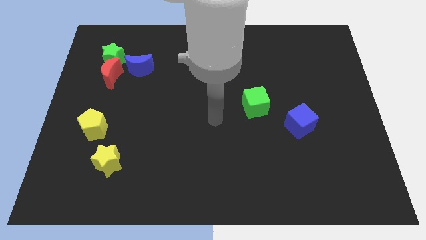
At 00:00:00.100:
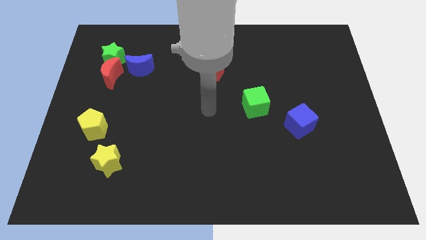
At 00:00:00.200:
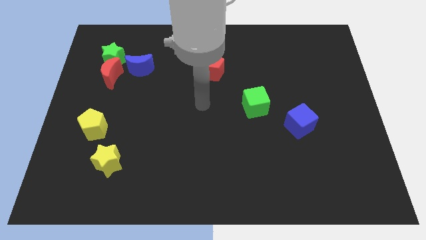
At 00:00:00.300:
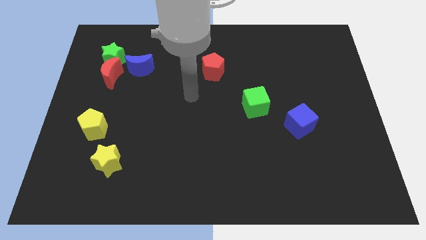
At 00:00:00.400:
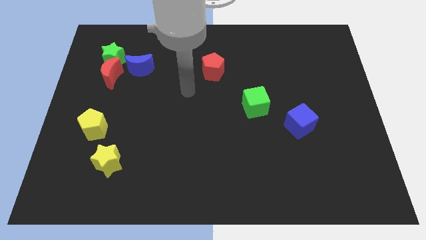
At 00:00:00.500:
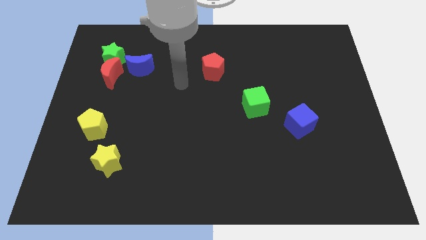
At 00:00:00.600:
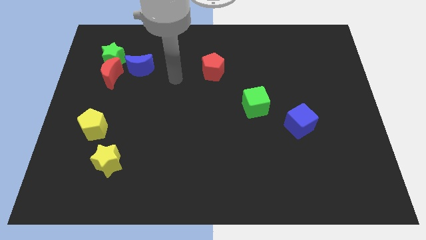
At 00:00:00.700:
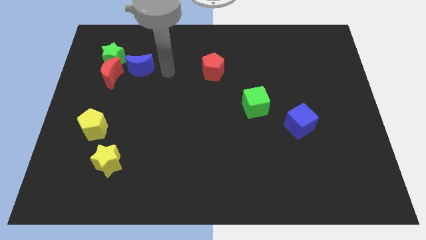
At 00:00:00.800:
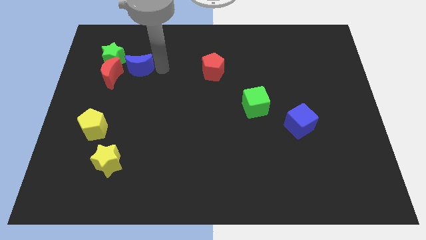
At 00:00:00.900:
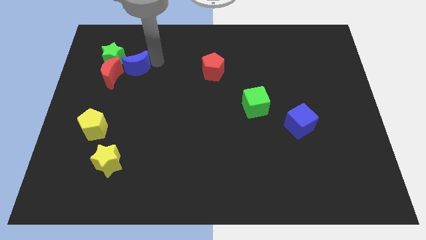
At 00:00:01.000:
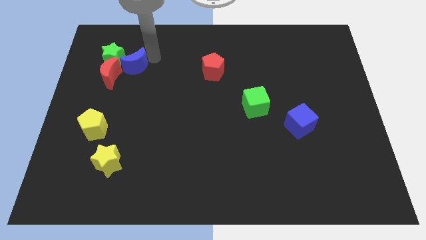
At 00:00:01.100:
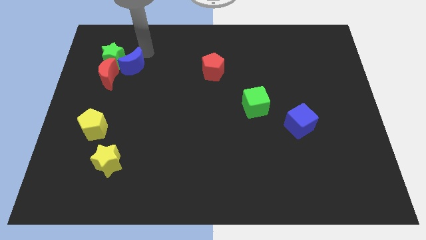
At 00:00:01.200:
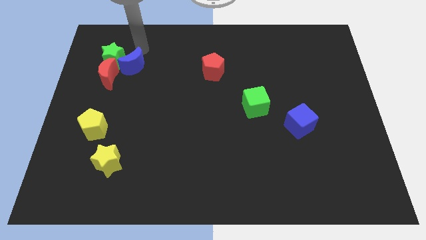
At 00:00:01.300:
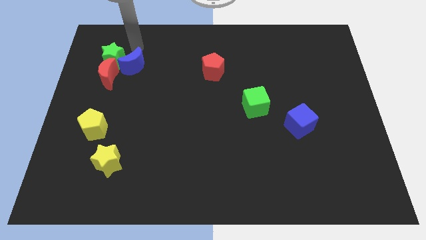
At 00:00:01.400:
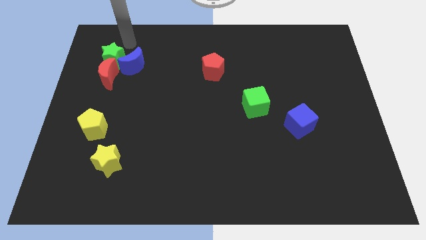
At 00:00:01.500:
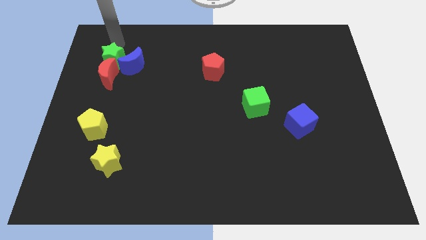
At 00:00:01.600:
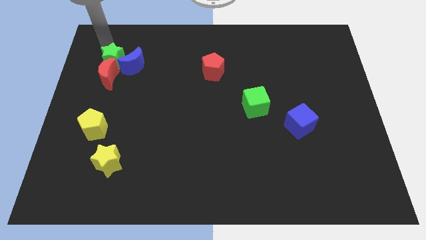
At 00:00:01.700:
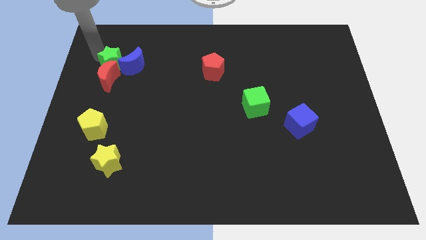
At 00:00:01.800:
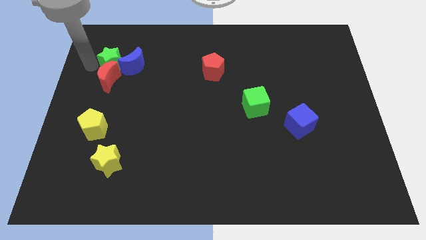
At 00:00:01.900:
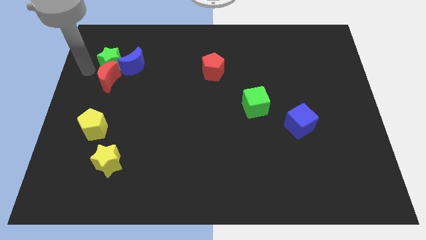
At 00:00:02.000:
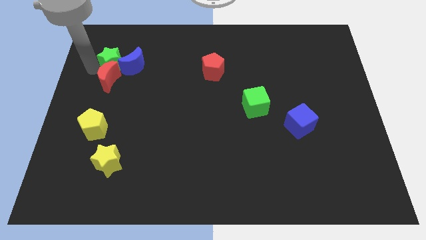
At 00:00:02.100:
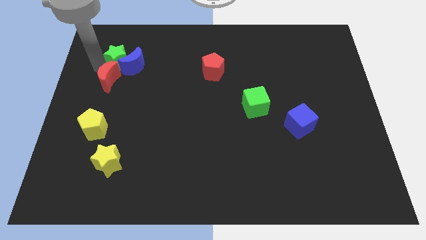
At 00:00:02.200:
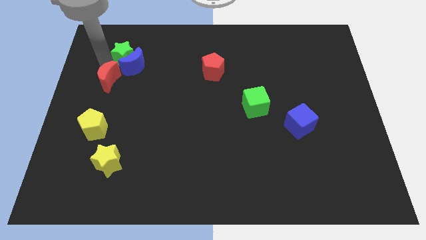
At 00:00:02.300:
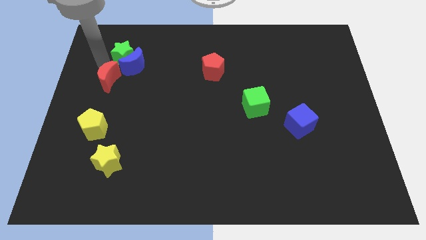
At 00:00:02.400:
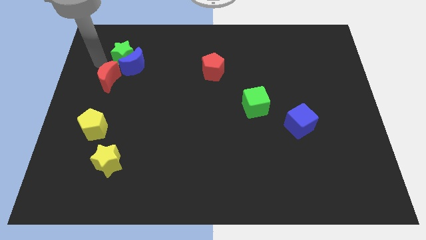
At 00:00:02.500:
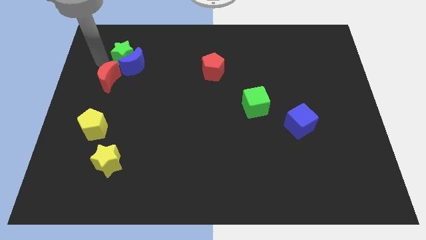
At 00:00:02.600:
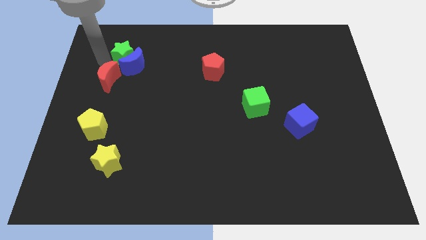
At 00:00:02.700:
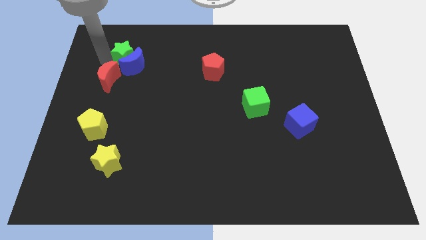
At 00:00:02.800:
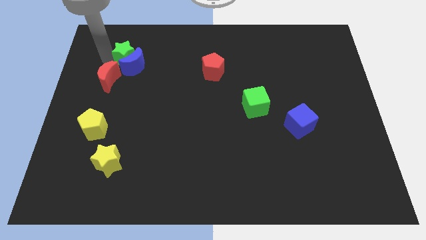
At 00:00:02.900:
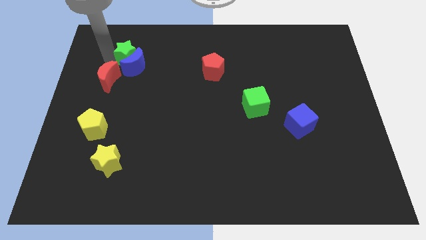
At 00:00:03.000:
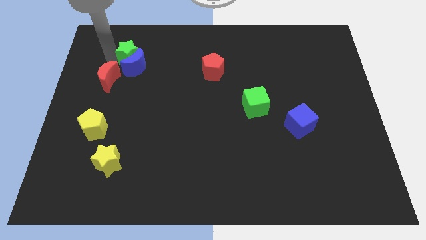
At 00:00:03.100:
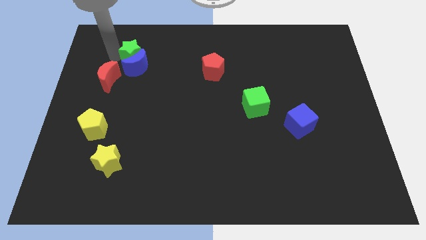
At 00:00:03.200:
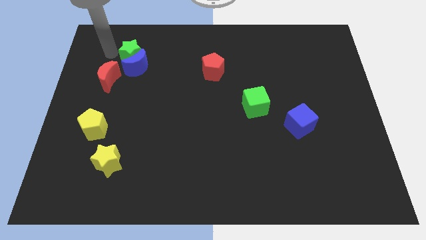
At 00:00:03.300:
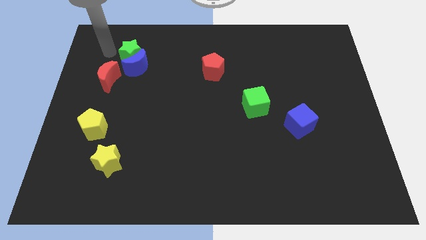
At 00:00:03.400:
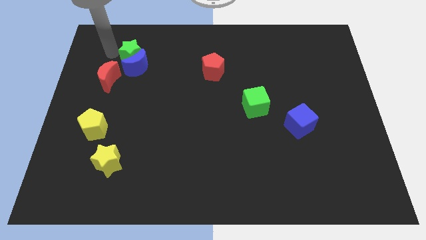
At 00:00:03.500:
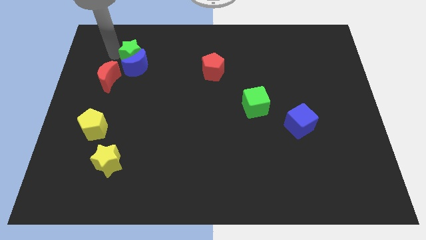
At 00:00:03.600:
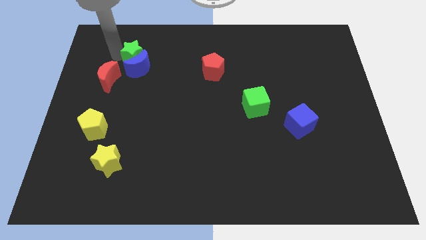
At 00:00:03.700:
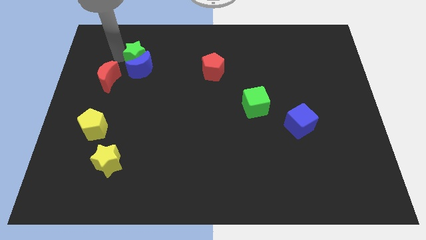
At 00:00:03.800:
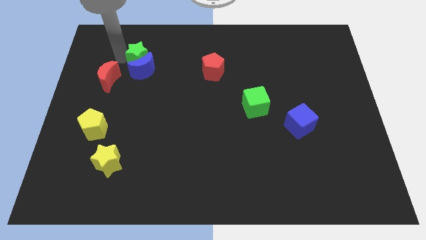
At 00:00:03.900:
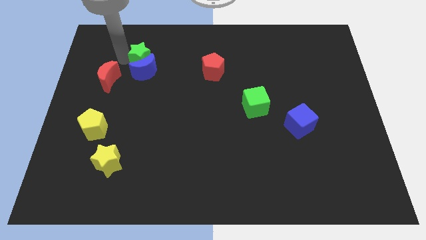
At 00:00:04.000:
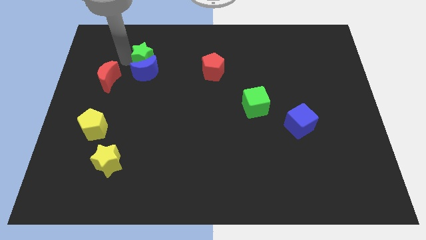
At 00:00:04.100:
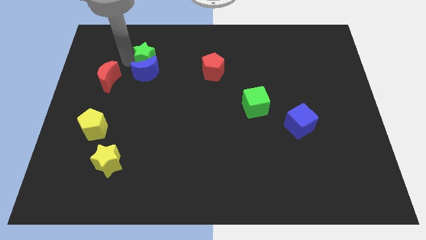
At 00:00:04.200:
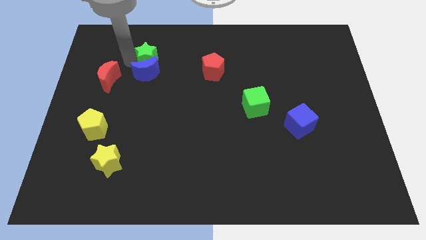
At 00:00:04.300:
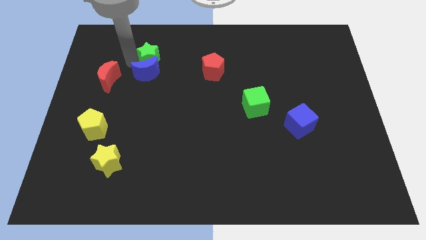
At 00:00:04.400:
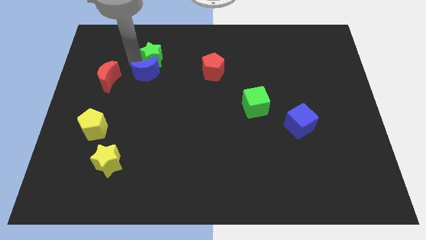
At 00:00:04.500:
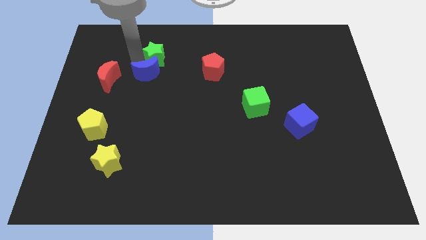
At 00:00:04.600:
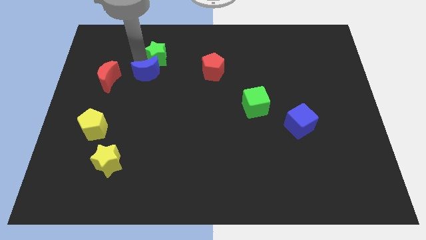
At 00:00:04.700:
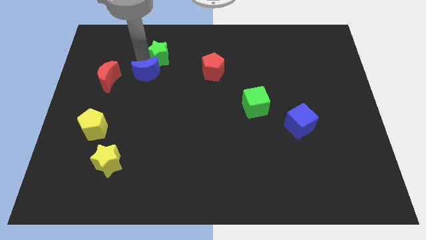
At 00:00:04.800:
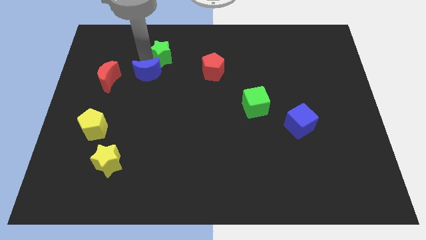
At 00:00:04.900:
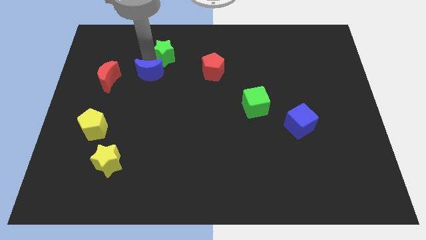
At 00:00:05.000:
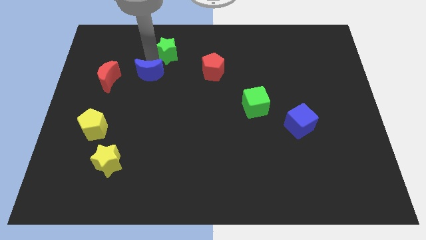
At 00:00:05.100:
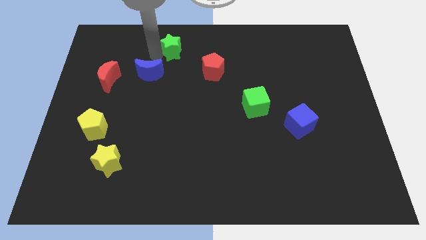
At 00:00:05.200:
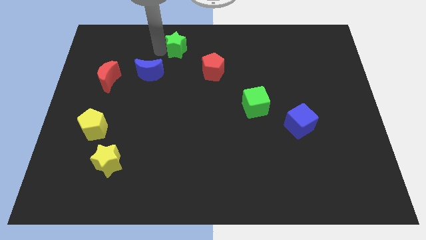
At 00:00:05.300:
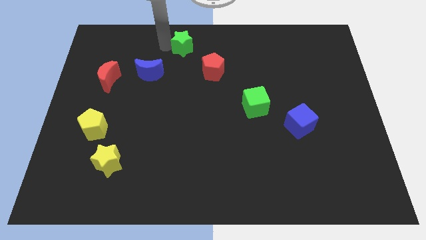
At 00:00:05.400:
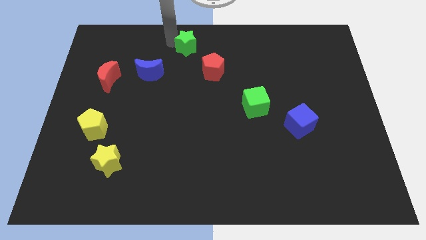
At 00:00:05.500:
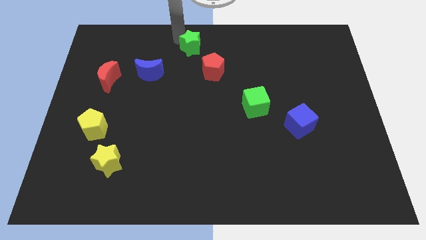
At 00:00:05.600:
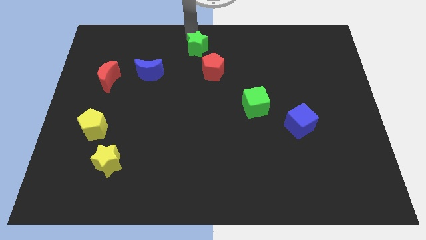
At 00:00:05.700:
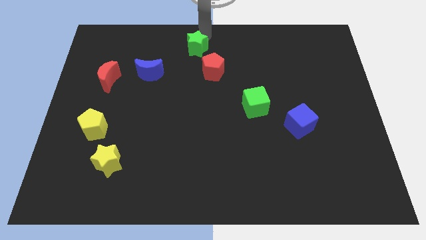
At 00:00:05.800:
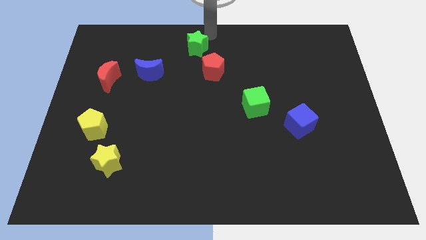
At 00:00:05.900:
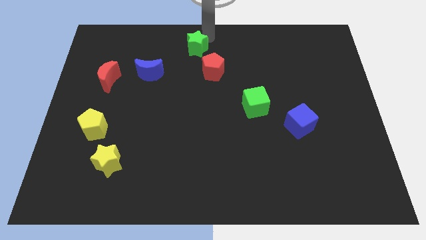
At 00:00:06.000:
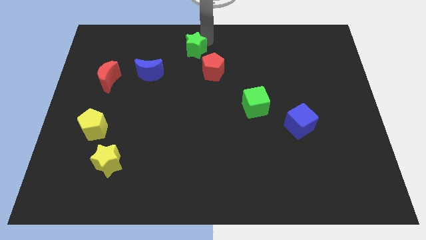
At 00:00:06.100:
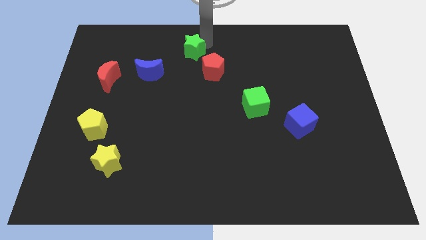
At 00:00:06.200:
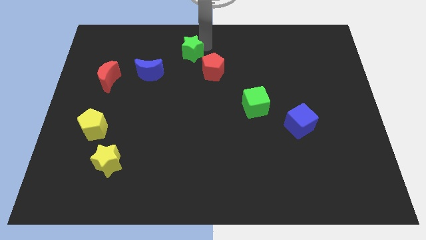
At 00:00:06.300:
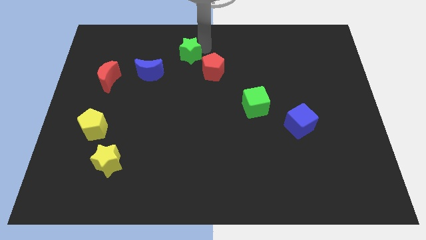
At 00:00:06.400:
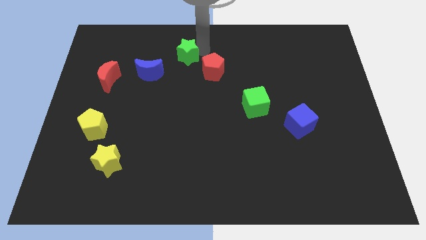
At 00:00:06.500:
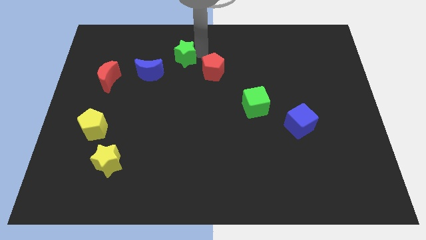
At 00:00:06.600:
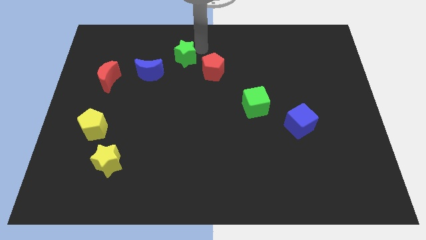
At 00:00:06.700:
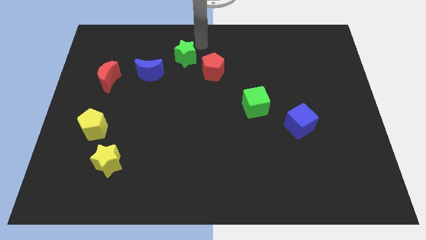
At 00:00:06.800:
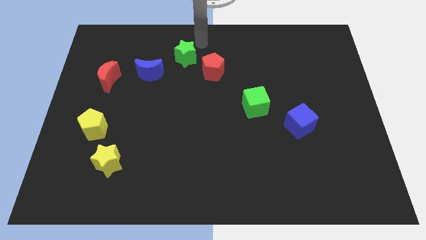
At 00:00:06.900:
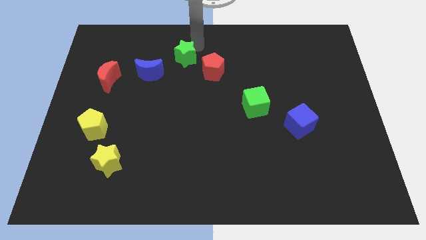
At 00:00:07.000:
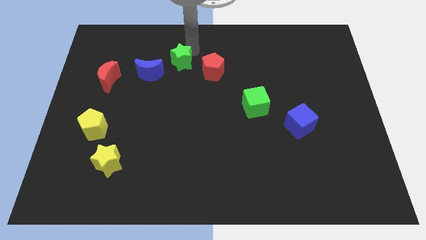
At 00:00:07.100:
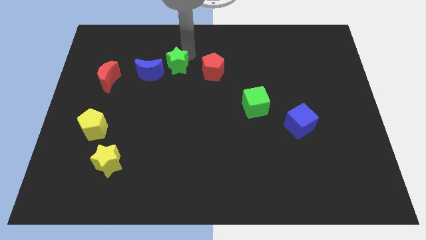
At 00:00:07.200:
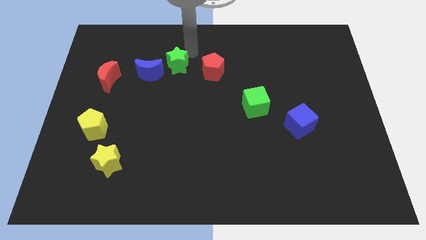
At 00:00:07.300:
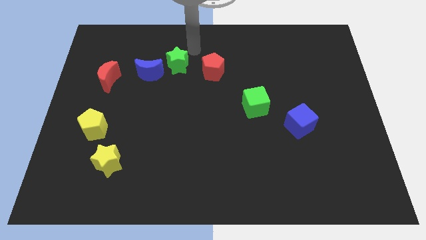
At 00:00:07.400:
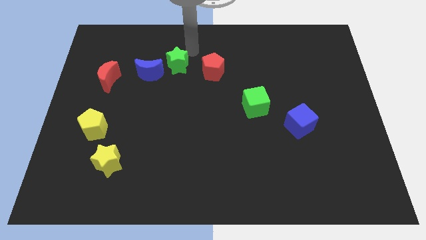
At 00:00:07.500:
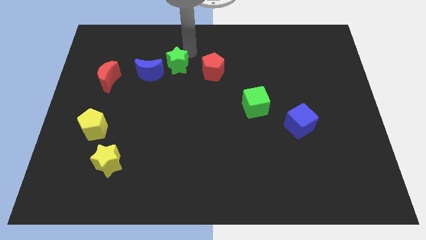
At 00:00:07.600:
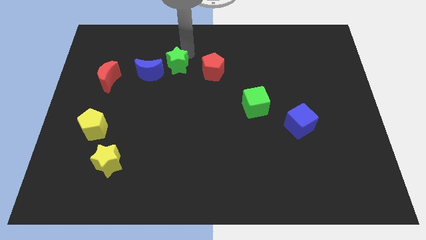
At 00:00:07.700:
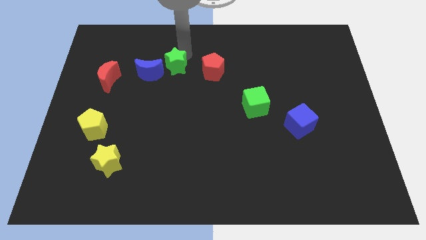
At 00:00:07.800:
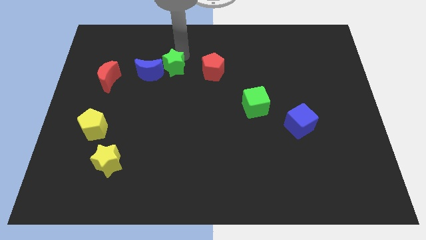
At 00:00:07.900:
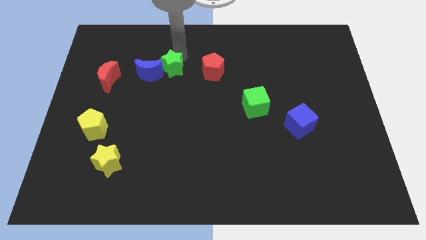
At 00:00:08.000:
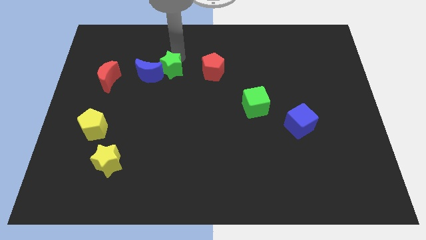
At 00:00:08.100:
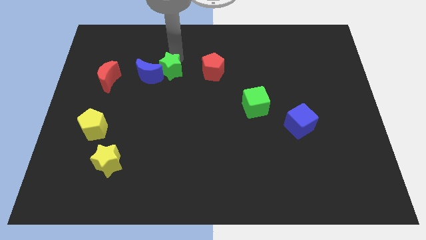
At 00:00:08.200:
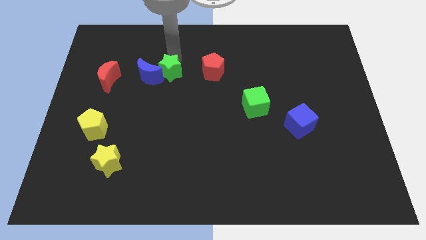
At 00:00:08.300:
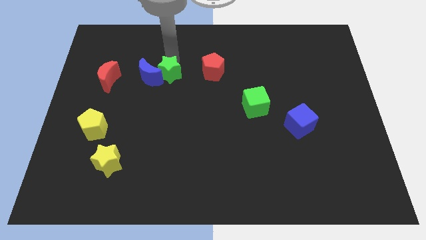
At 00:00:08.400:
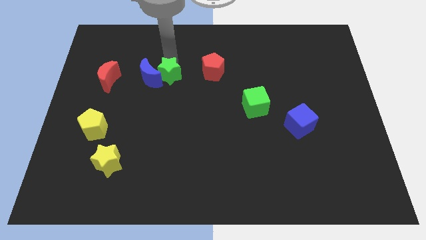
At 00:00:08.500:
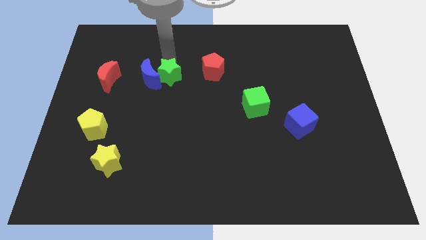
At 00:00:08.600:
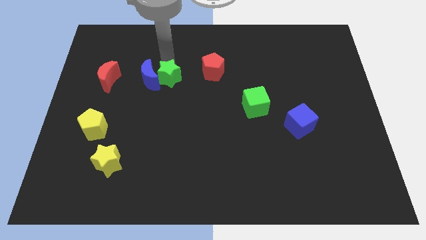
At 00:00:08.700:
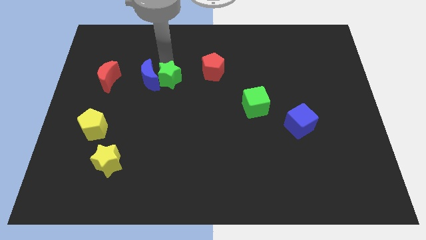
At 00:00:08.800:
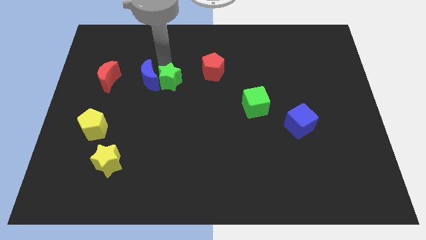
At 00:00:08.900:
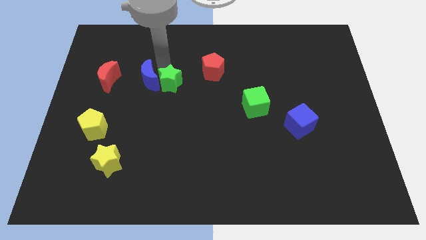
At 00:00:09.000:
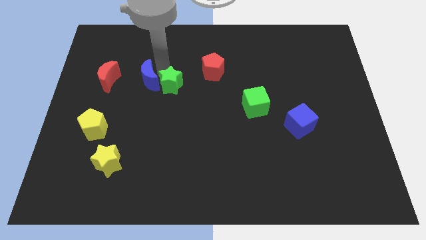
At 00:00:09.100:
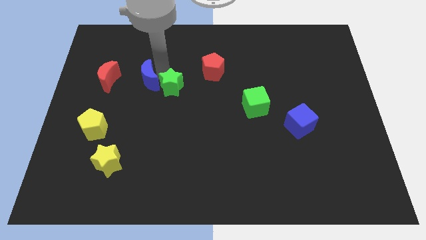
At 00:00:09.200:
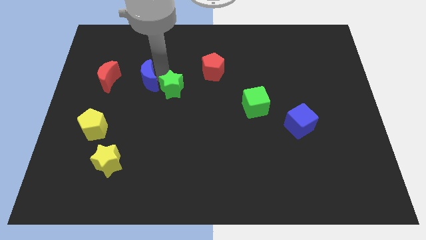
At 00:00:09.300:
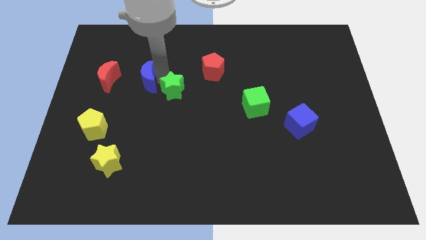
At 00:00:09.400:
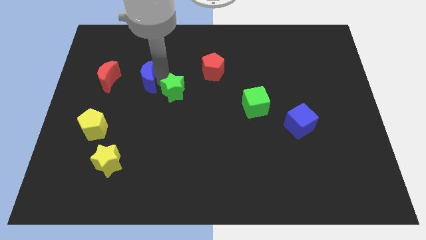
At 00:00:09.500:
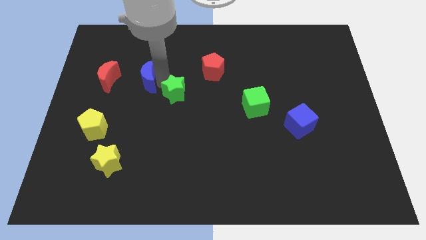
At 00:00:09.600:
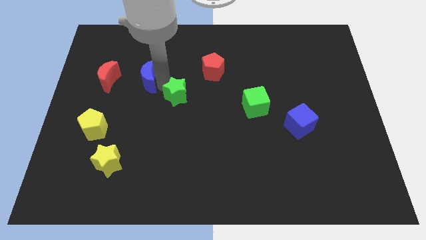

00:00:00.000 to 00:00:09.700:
move the green star down and to the right diagonally
